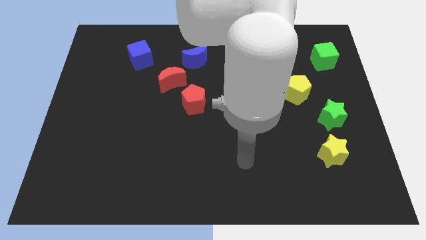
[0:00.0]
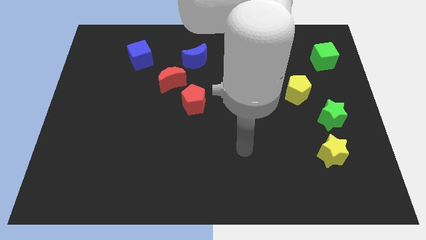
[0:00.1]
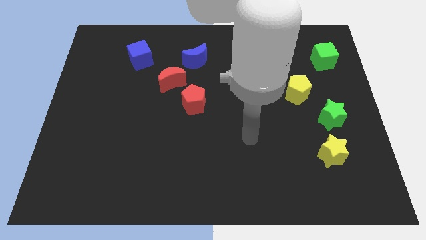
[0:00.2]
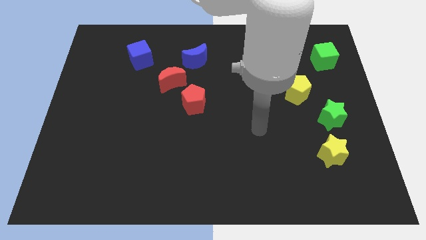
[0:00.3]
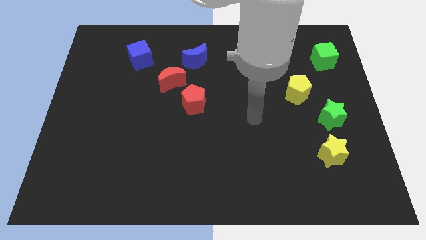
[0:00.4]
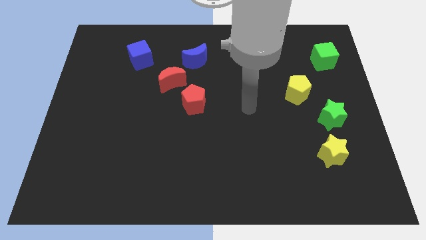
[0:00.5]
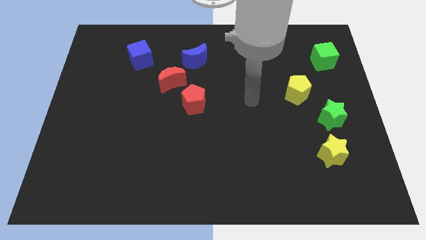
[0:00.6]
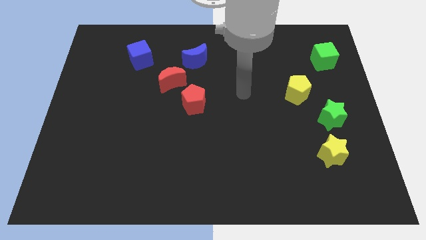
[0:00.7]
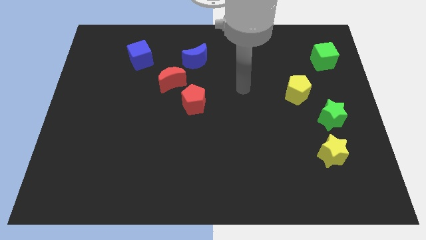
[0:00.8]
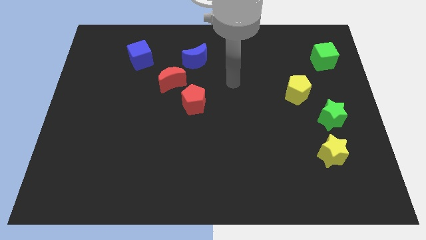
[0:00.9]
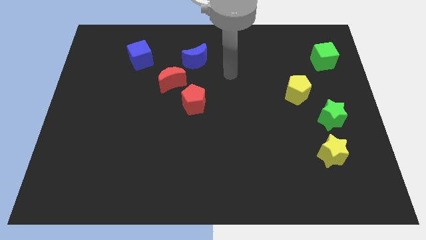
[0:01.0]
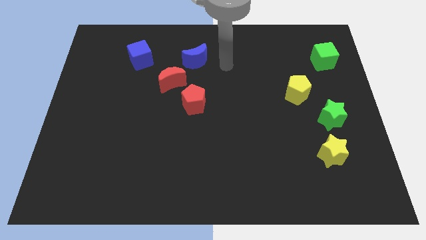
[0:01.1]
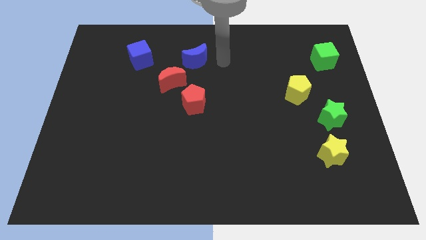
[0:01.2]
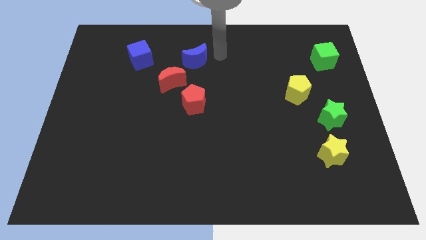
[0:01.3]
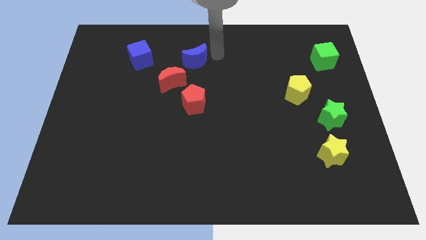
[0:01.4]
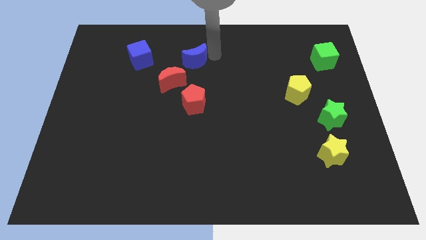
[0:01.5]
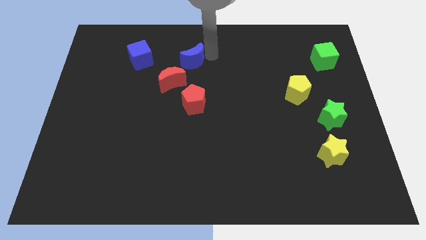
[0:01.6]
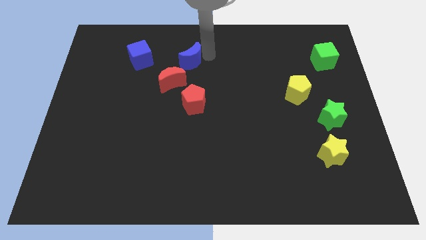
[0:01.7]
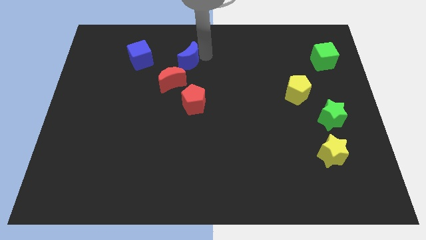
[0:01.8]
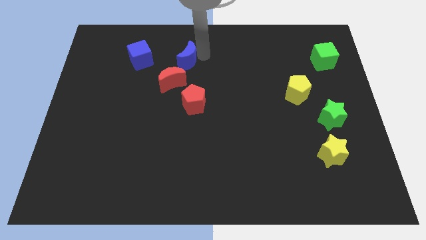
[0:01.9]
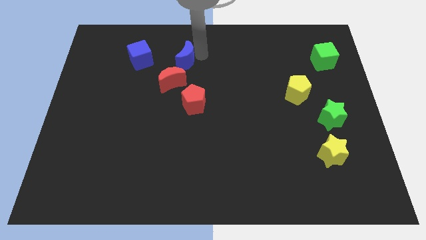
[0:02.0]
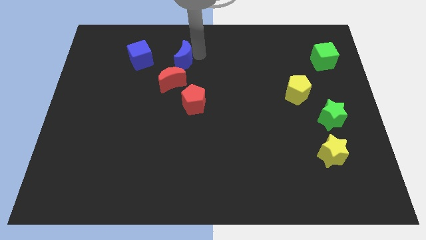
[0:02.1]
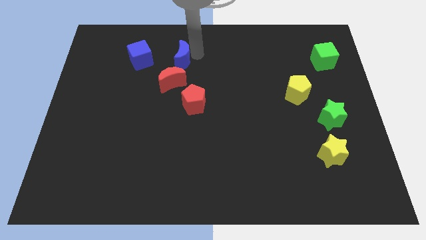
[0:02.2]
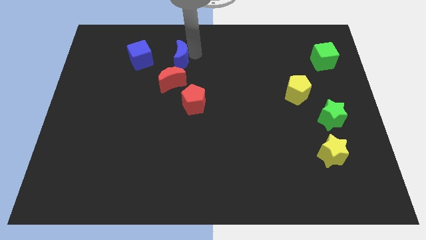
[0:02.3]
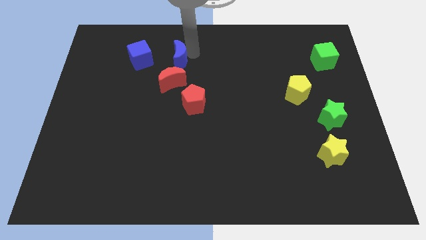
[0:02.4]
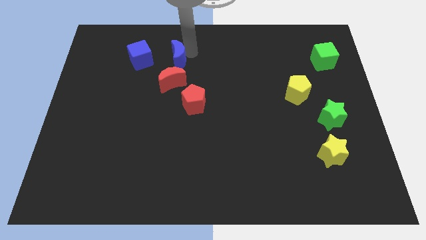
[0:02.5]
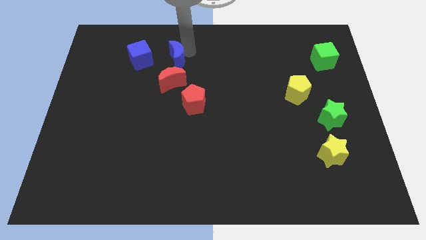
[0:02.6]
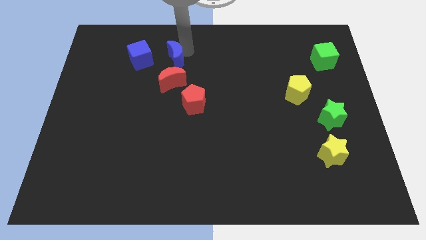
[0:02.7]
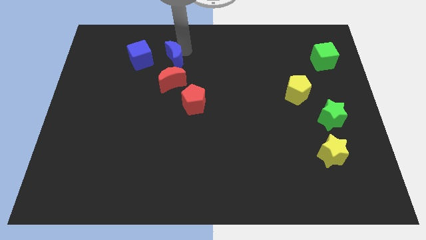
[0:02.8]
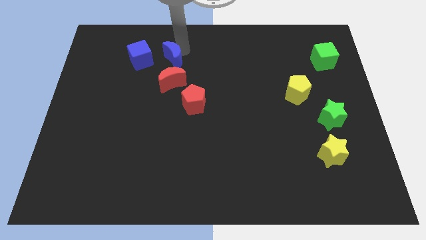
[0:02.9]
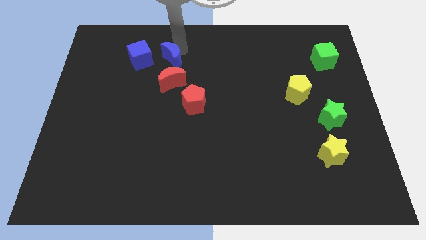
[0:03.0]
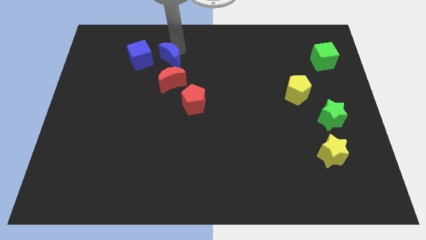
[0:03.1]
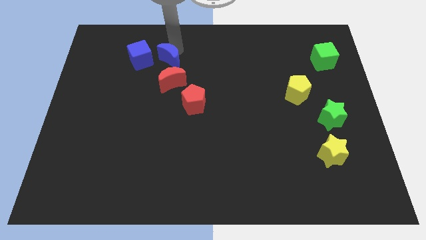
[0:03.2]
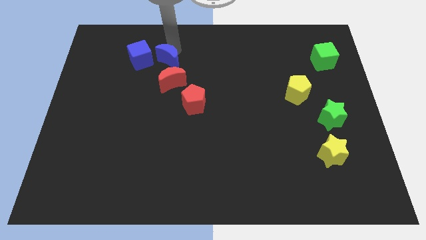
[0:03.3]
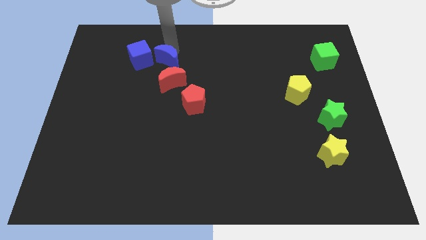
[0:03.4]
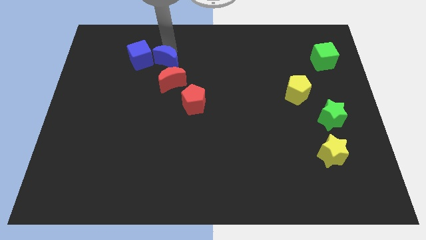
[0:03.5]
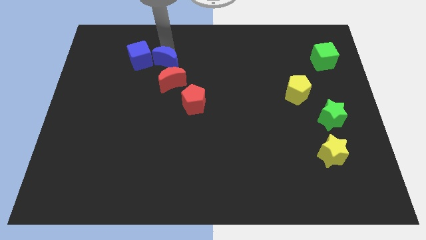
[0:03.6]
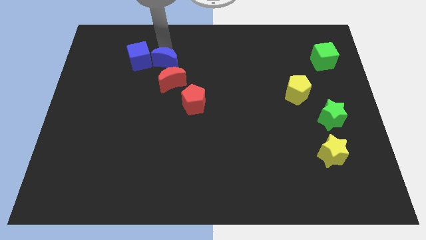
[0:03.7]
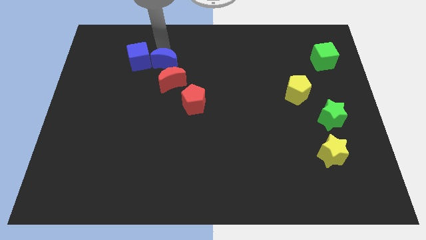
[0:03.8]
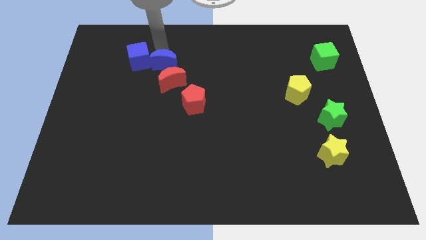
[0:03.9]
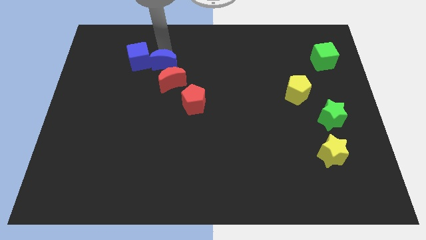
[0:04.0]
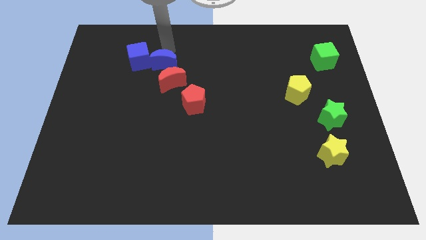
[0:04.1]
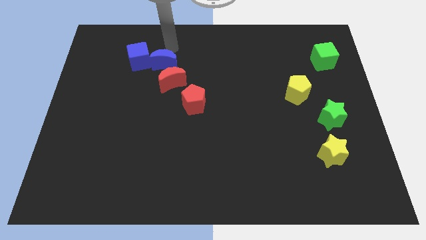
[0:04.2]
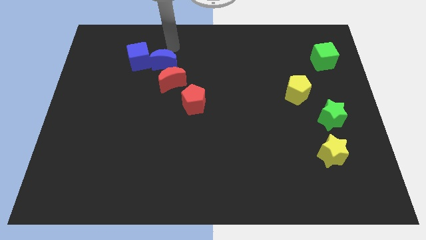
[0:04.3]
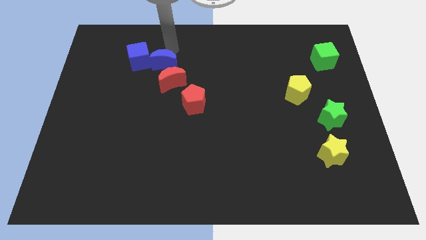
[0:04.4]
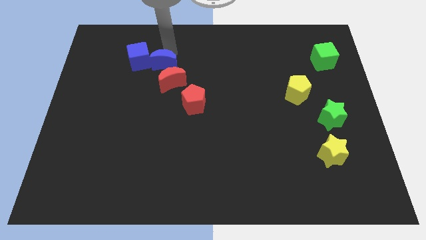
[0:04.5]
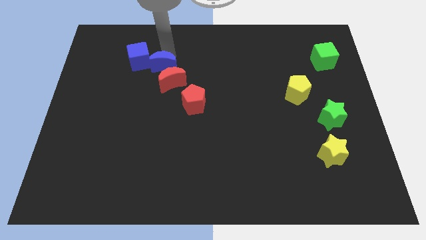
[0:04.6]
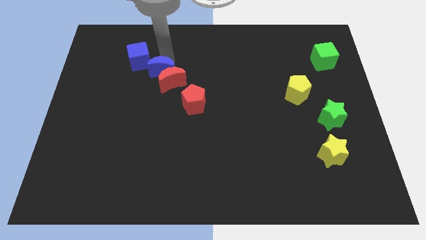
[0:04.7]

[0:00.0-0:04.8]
push the blue moon a bit downwards and to the left

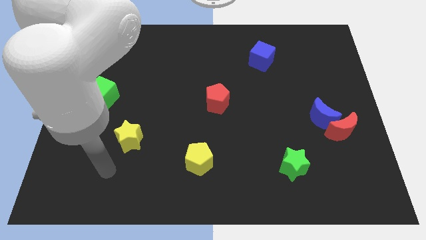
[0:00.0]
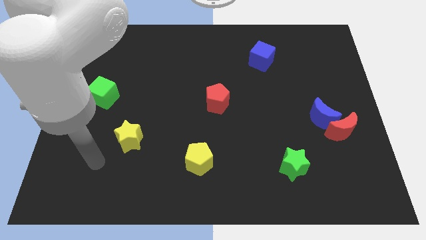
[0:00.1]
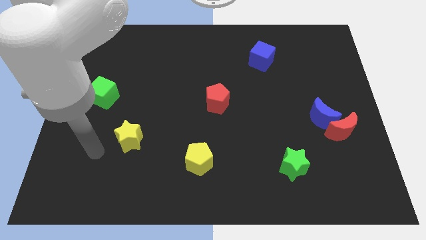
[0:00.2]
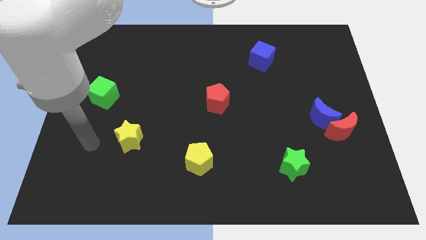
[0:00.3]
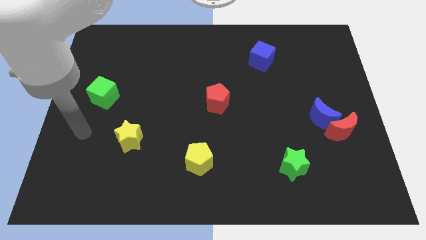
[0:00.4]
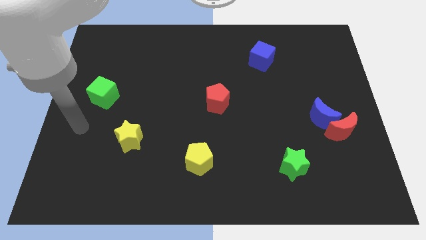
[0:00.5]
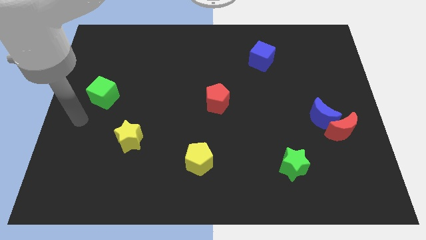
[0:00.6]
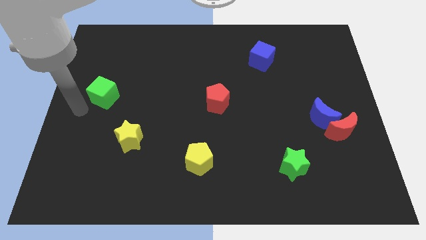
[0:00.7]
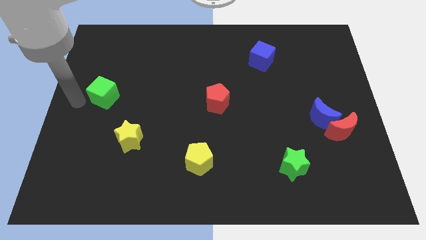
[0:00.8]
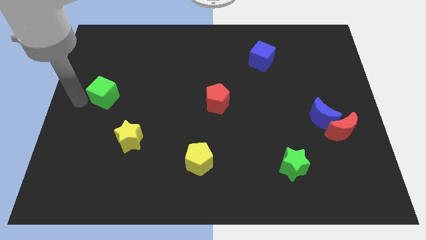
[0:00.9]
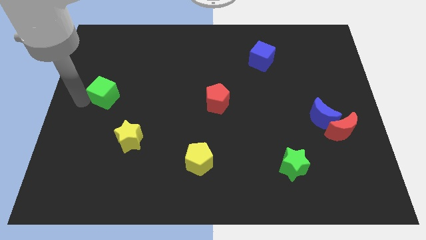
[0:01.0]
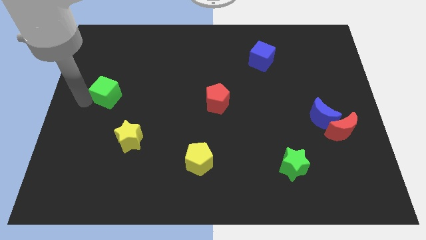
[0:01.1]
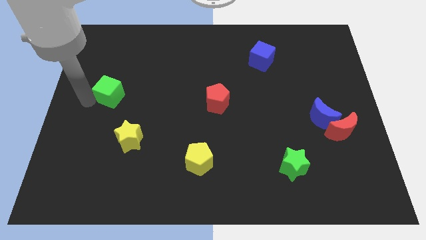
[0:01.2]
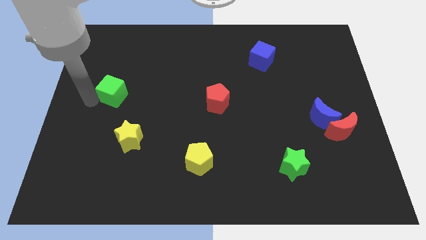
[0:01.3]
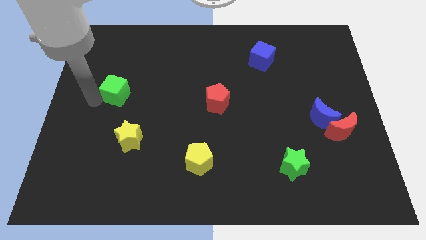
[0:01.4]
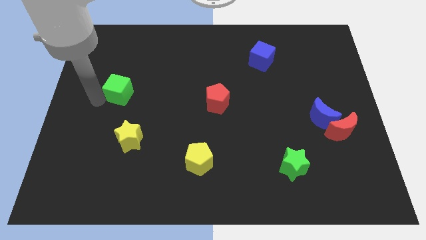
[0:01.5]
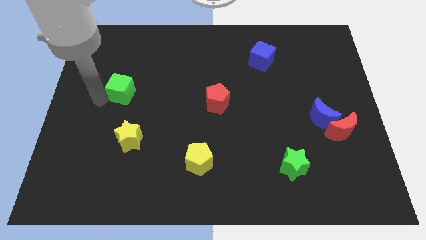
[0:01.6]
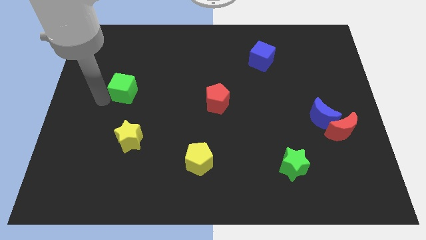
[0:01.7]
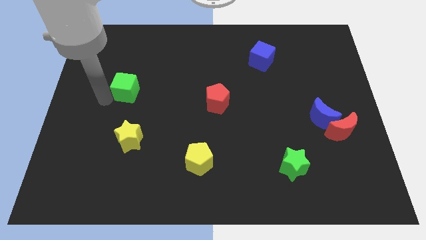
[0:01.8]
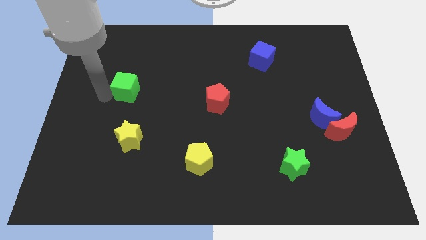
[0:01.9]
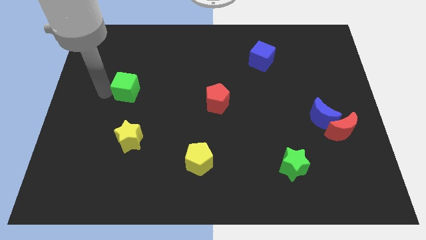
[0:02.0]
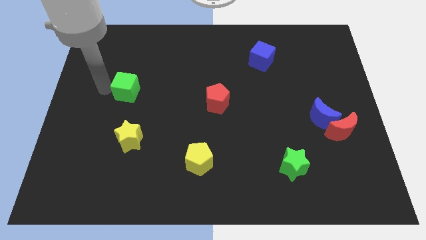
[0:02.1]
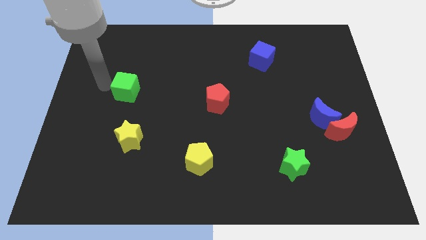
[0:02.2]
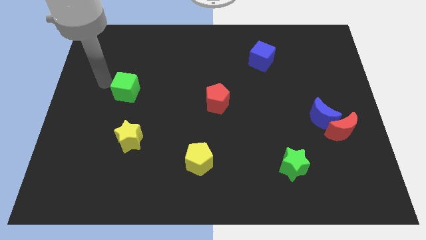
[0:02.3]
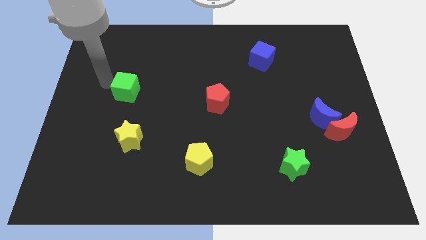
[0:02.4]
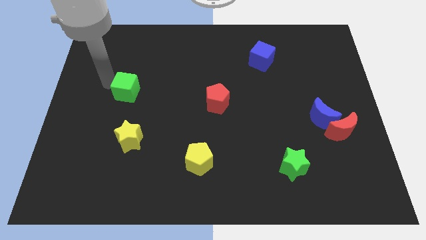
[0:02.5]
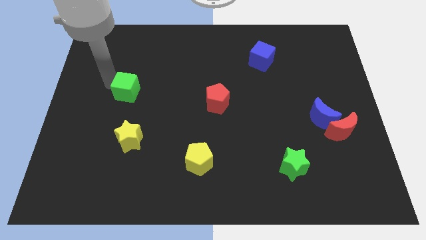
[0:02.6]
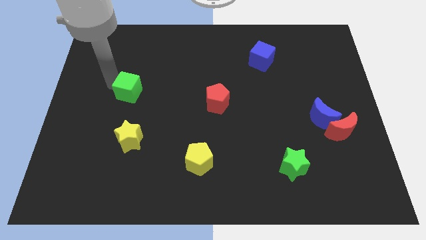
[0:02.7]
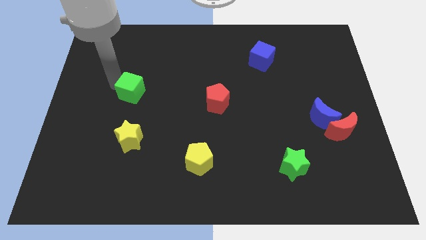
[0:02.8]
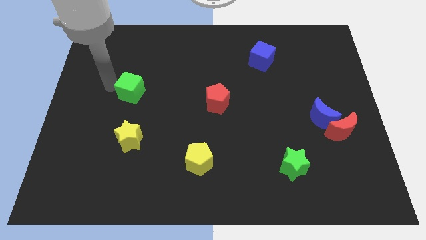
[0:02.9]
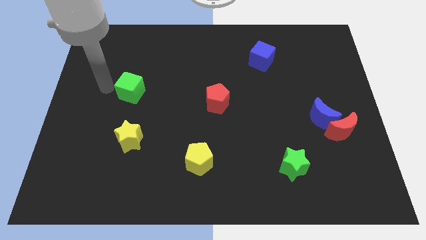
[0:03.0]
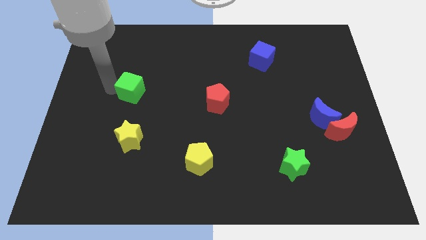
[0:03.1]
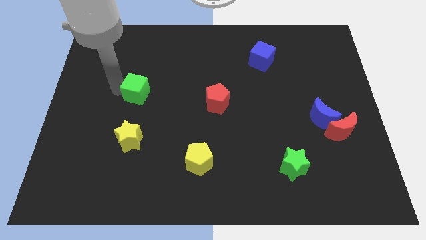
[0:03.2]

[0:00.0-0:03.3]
push the green cube right a little bit
